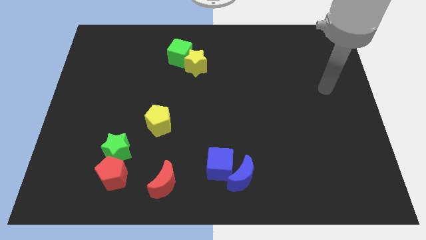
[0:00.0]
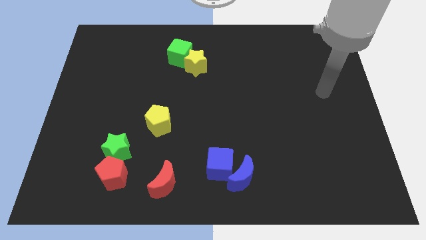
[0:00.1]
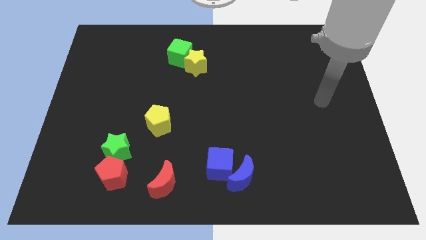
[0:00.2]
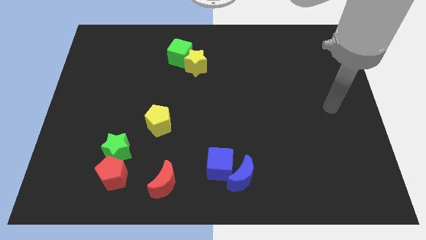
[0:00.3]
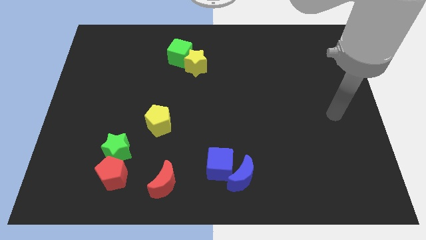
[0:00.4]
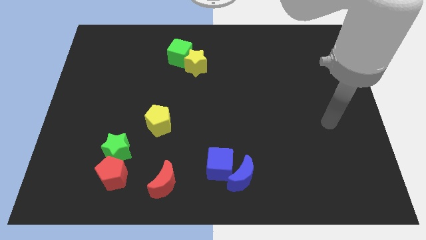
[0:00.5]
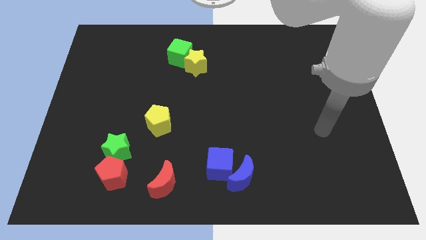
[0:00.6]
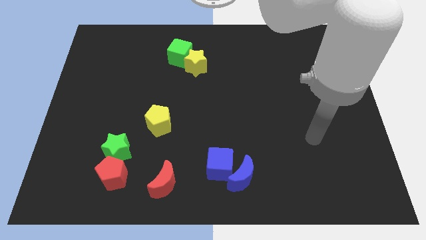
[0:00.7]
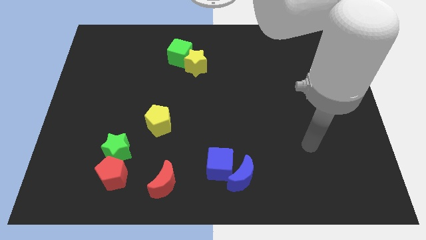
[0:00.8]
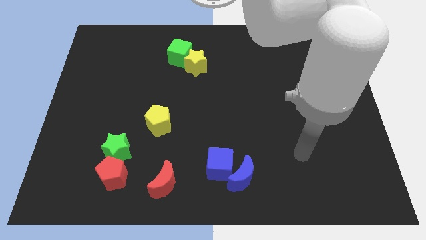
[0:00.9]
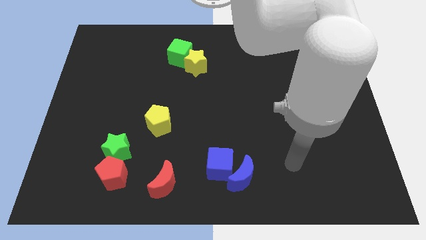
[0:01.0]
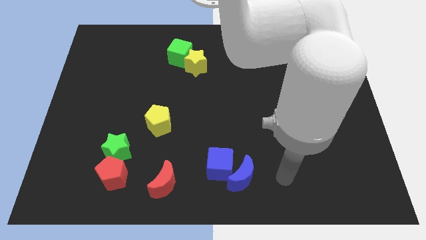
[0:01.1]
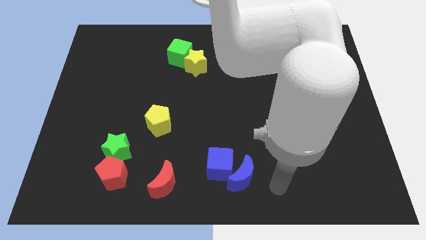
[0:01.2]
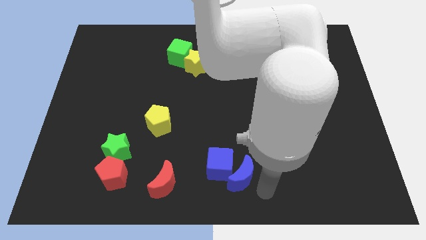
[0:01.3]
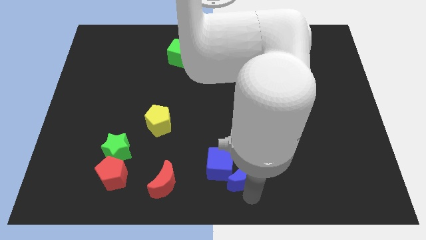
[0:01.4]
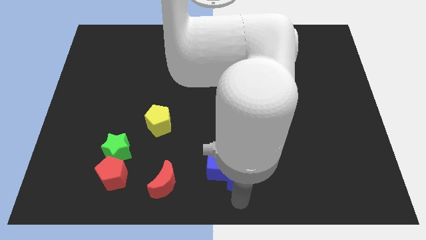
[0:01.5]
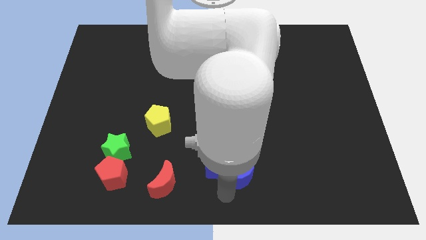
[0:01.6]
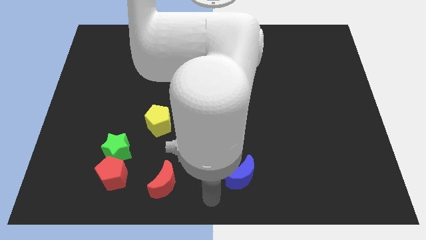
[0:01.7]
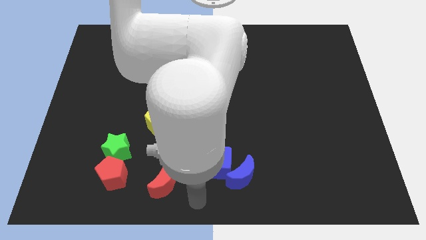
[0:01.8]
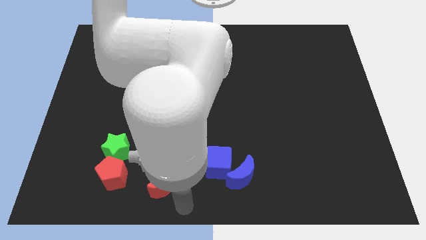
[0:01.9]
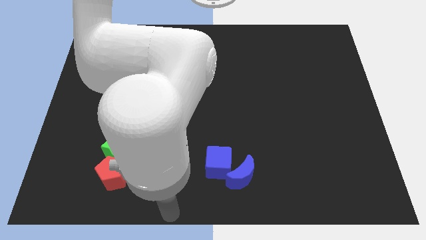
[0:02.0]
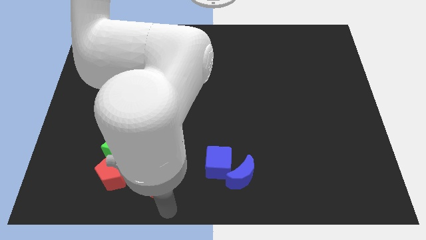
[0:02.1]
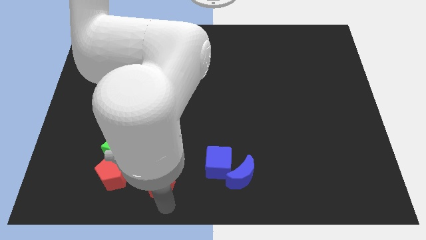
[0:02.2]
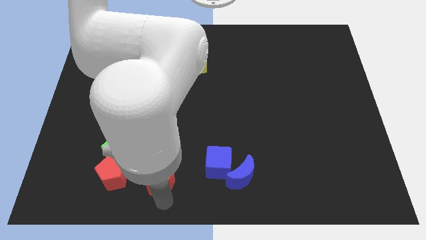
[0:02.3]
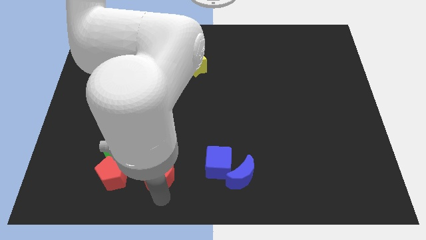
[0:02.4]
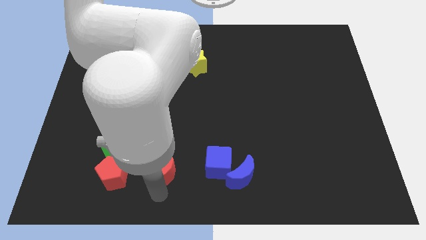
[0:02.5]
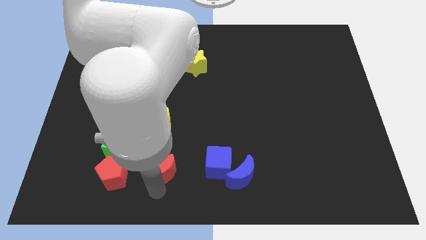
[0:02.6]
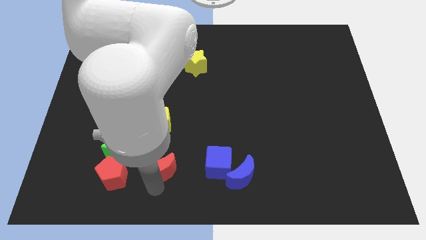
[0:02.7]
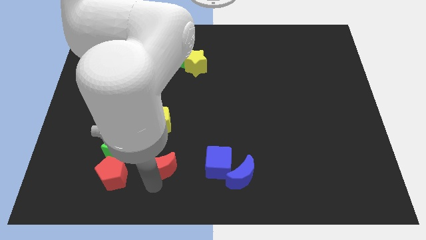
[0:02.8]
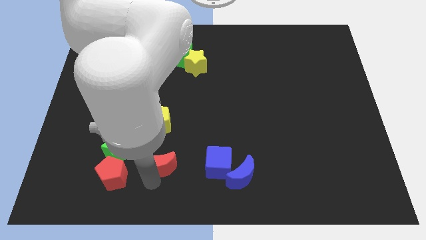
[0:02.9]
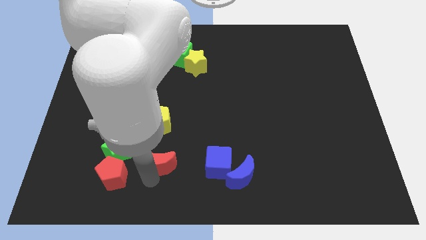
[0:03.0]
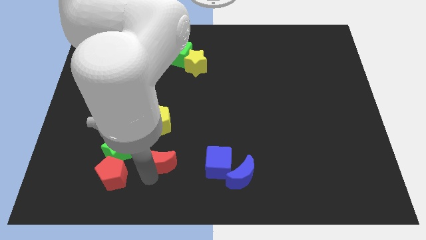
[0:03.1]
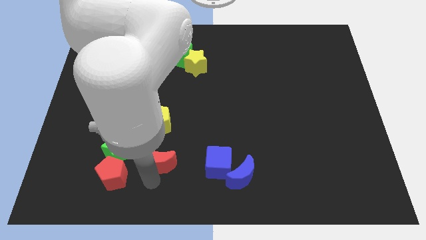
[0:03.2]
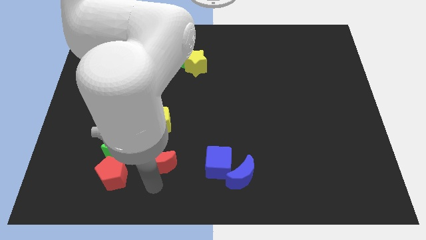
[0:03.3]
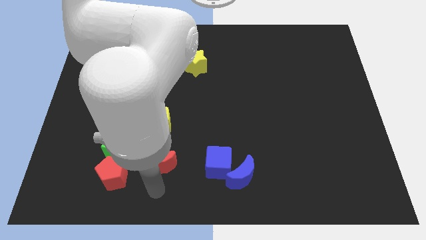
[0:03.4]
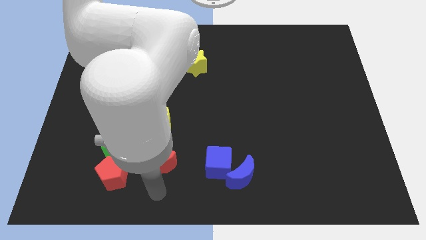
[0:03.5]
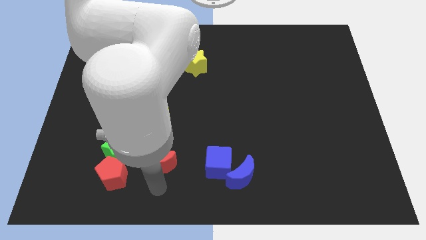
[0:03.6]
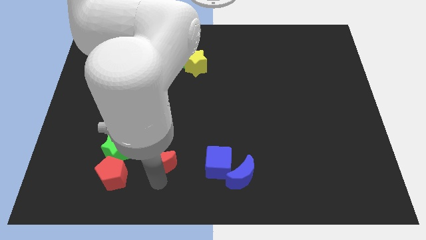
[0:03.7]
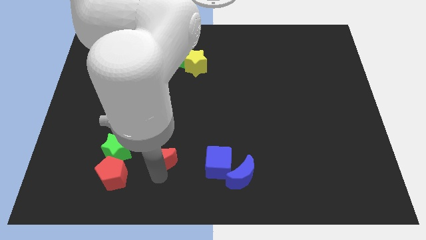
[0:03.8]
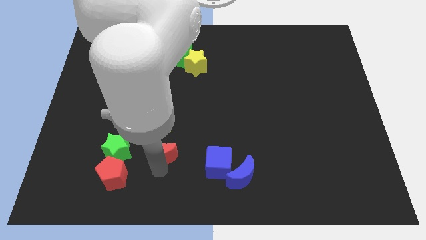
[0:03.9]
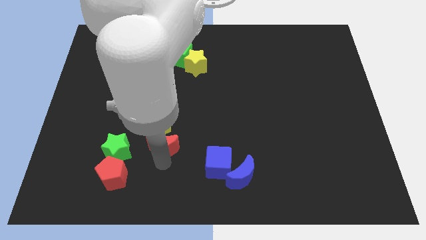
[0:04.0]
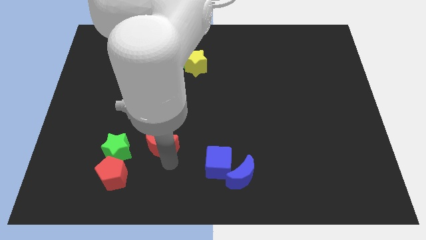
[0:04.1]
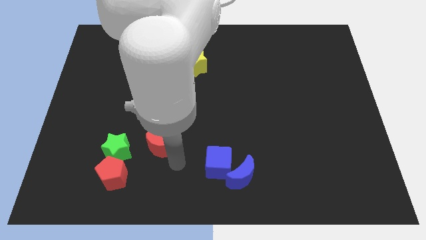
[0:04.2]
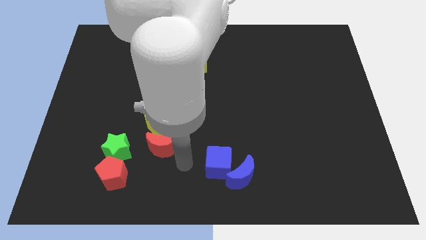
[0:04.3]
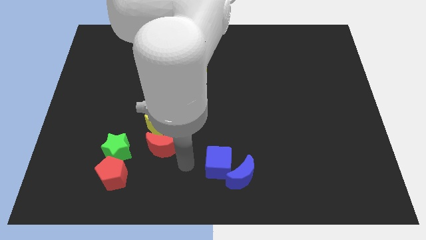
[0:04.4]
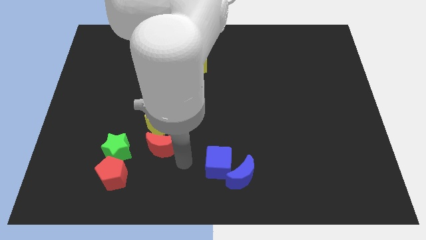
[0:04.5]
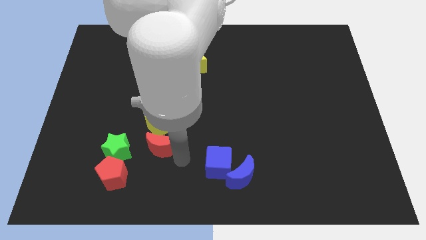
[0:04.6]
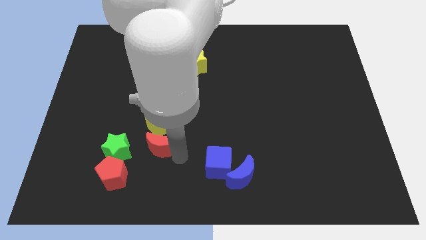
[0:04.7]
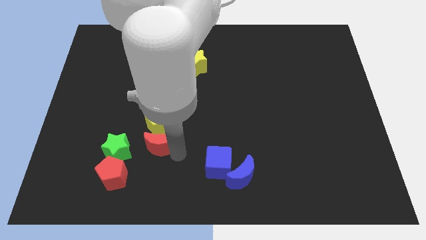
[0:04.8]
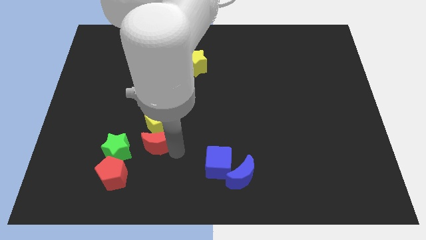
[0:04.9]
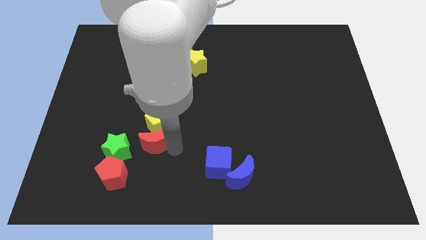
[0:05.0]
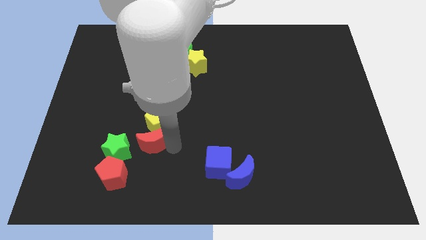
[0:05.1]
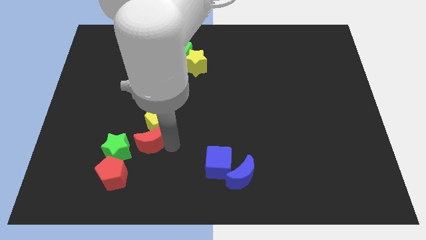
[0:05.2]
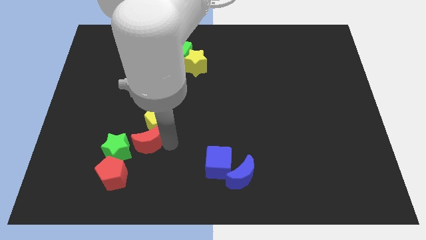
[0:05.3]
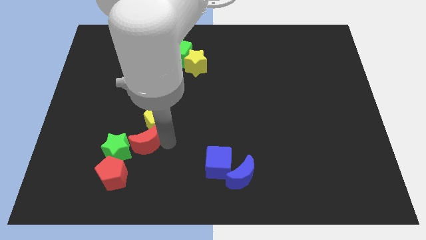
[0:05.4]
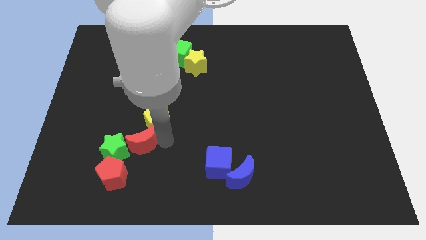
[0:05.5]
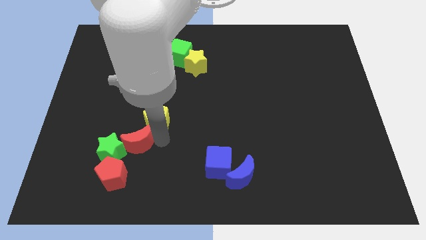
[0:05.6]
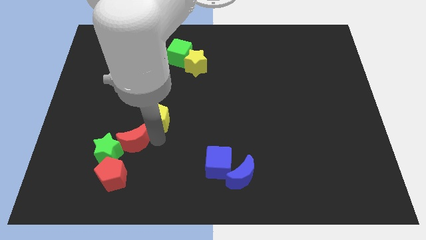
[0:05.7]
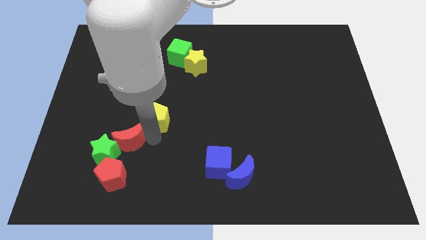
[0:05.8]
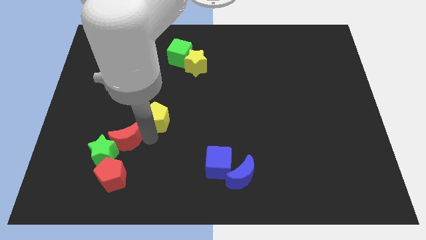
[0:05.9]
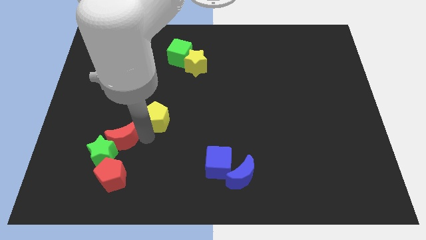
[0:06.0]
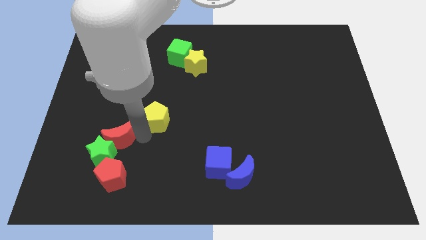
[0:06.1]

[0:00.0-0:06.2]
move the red moon to the left side of the yellow pentagon

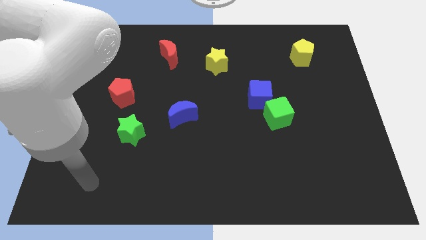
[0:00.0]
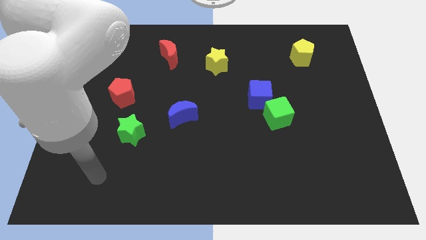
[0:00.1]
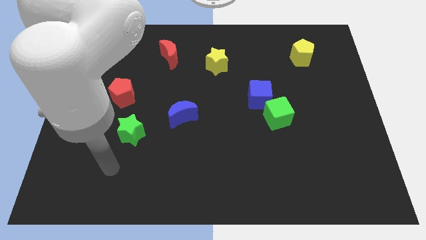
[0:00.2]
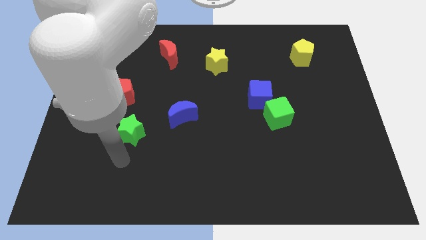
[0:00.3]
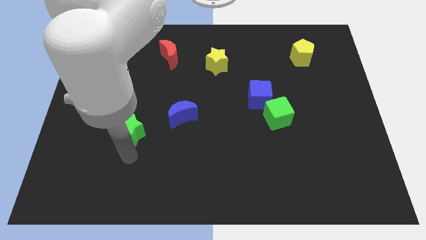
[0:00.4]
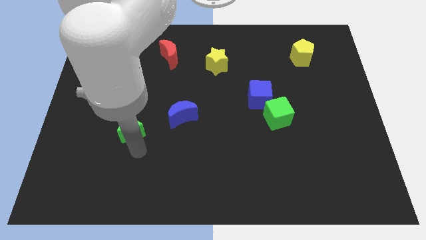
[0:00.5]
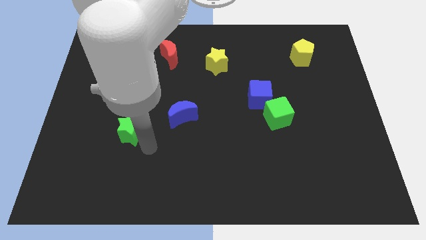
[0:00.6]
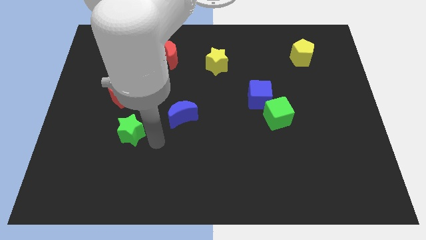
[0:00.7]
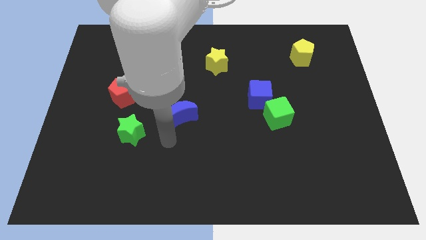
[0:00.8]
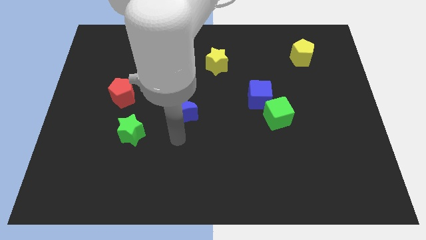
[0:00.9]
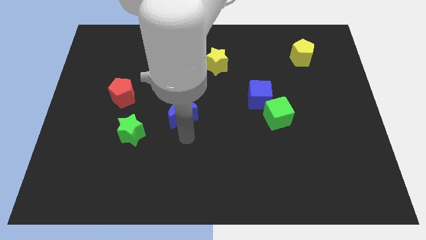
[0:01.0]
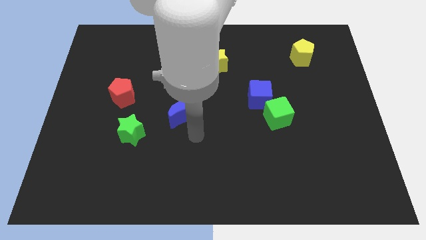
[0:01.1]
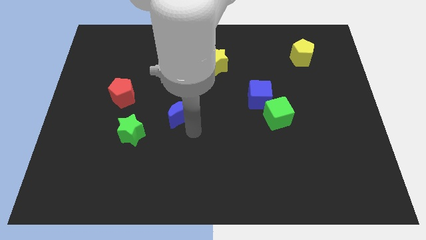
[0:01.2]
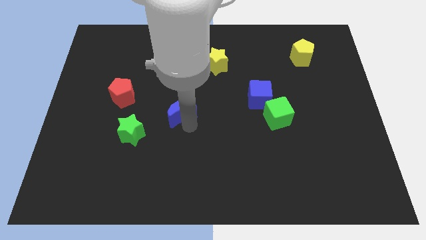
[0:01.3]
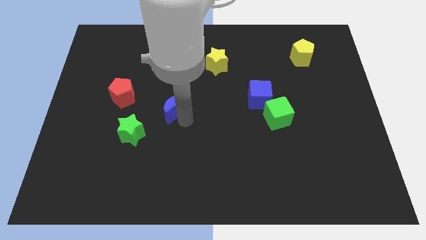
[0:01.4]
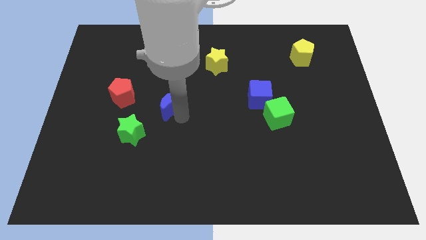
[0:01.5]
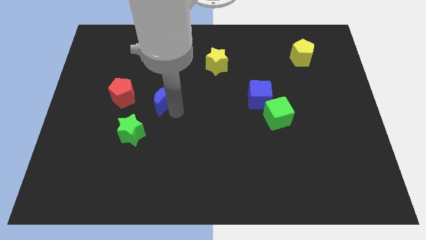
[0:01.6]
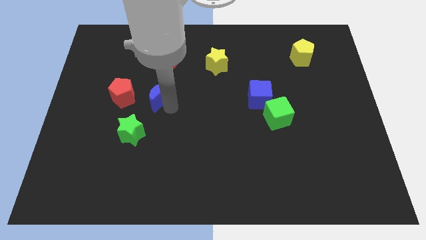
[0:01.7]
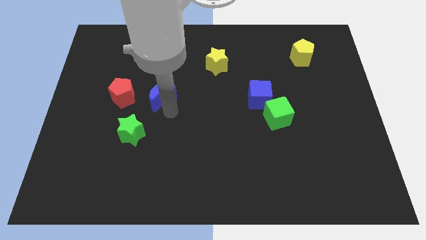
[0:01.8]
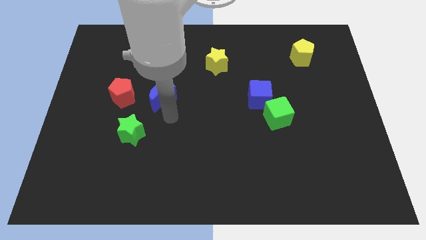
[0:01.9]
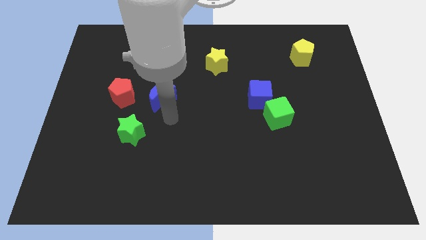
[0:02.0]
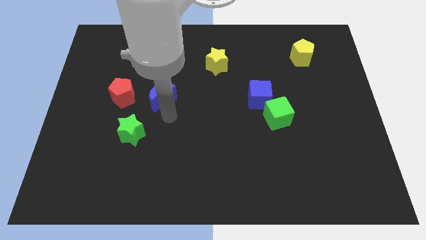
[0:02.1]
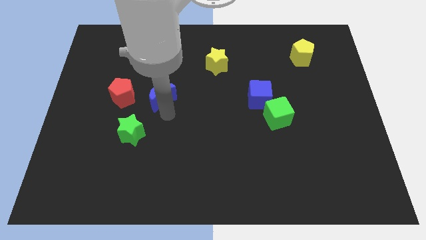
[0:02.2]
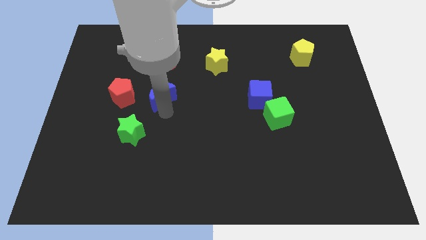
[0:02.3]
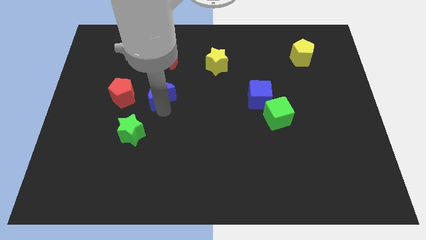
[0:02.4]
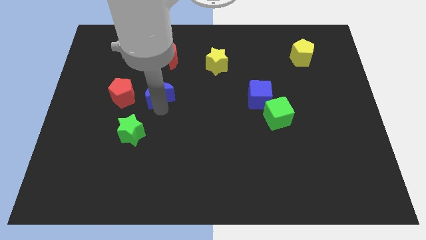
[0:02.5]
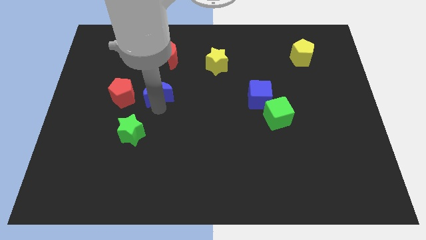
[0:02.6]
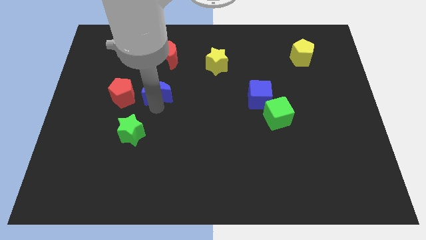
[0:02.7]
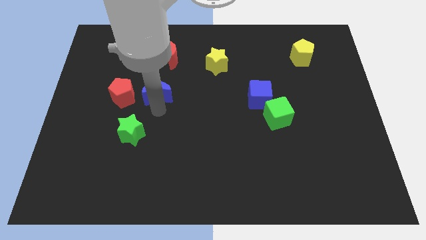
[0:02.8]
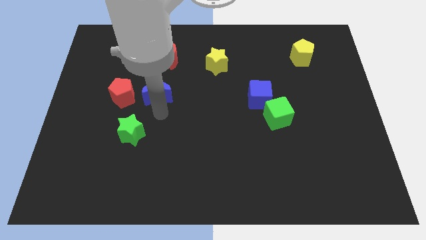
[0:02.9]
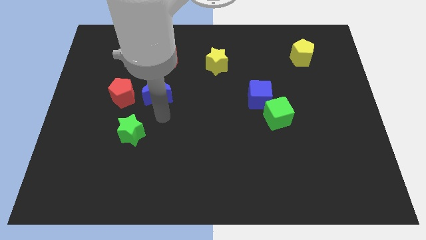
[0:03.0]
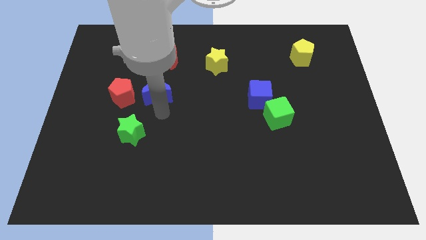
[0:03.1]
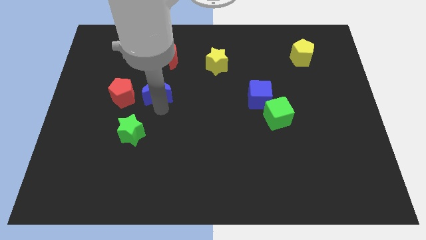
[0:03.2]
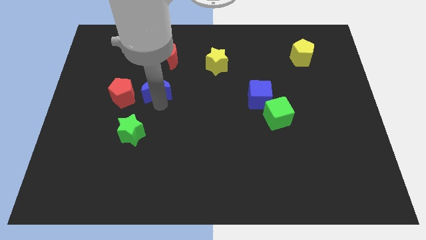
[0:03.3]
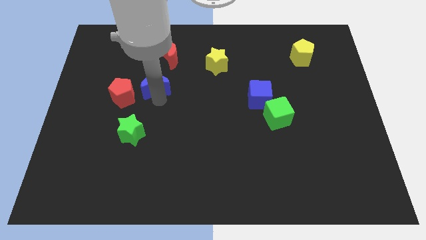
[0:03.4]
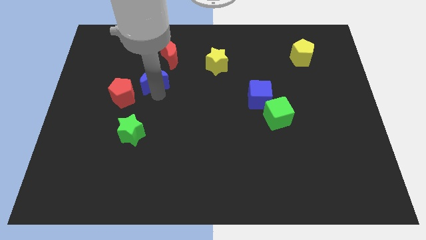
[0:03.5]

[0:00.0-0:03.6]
move the blue moon diagonally down and to the left of the red moon
